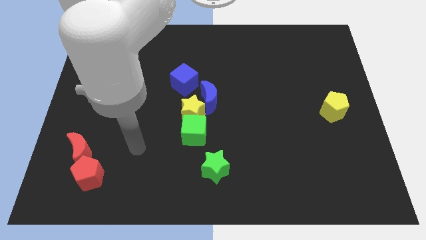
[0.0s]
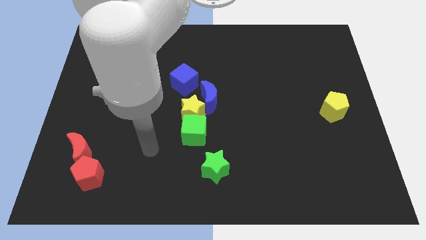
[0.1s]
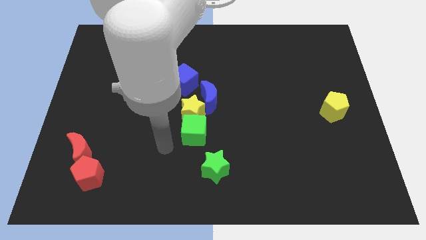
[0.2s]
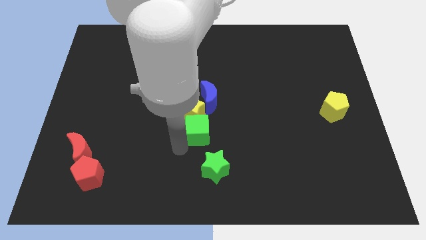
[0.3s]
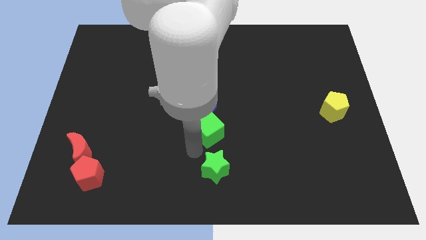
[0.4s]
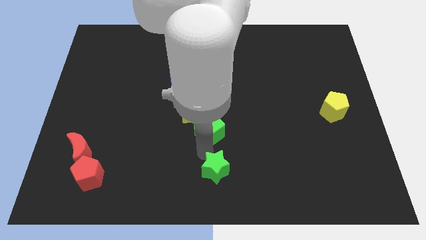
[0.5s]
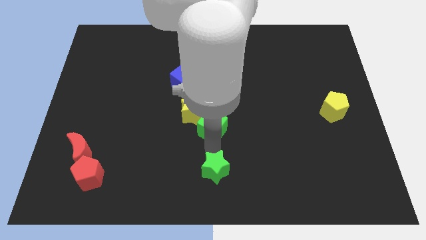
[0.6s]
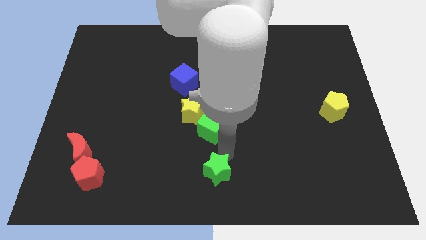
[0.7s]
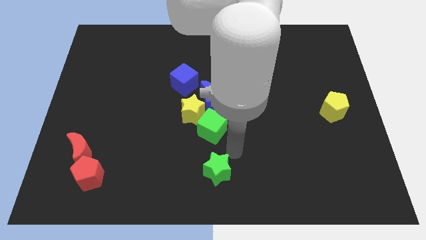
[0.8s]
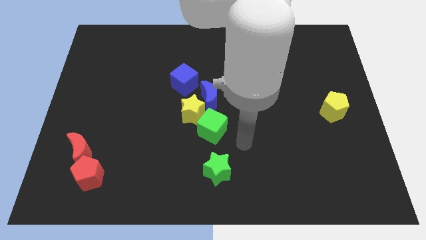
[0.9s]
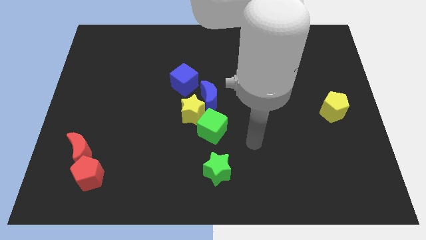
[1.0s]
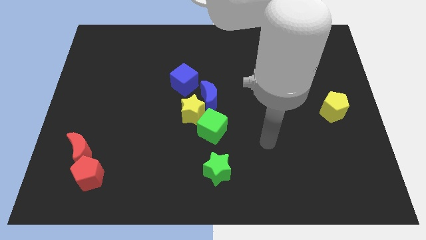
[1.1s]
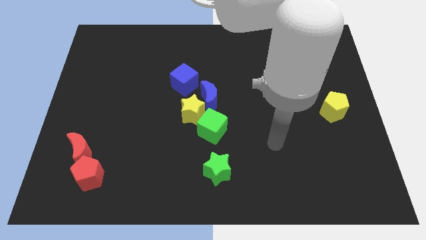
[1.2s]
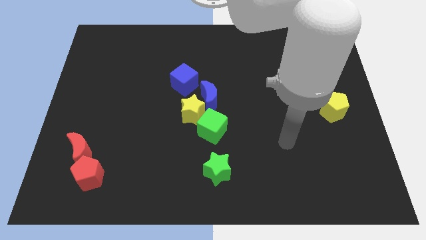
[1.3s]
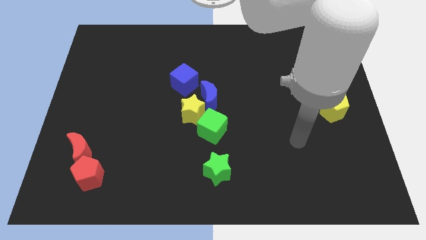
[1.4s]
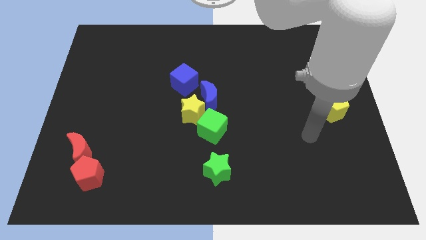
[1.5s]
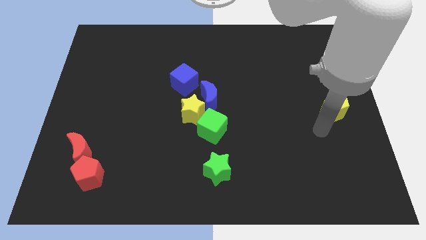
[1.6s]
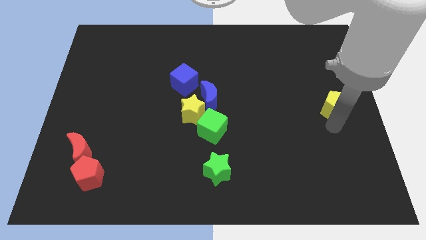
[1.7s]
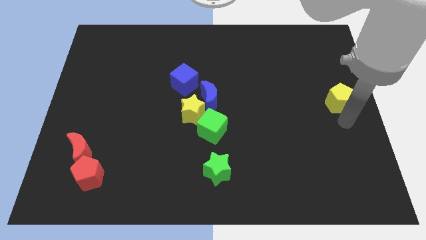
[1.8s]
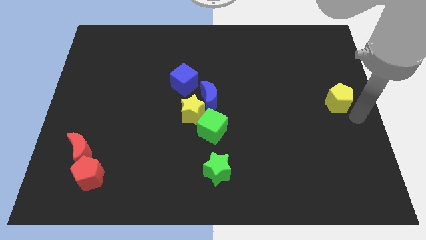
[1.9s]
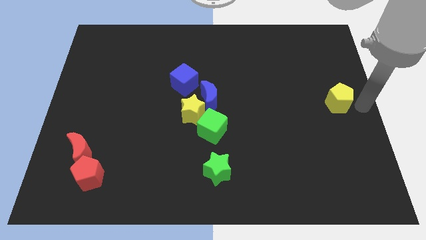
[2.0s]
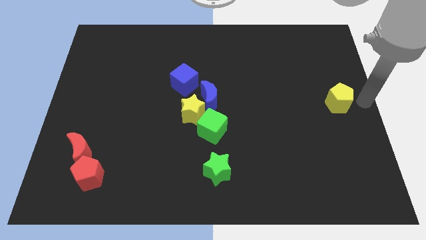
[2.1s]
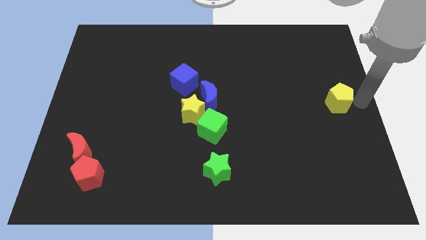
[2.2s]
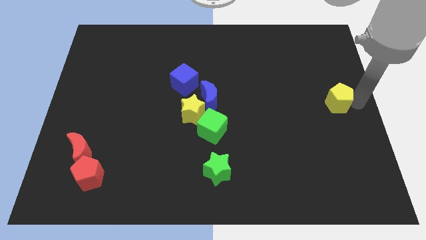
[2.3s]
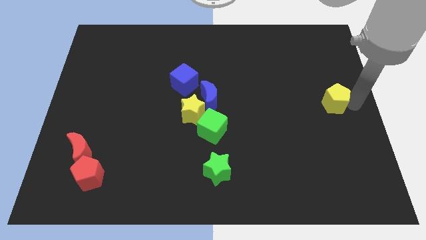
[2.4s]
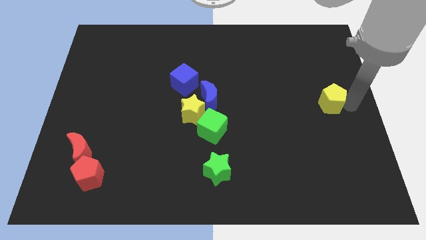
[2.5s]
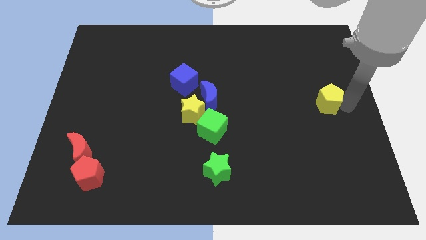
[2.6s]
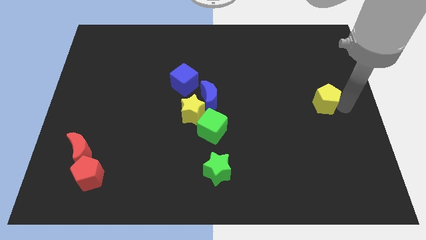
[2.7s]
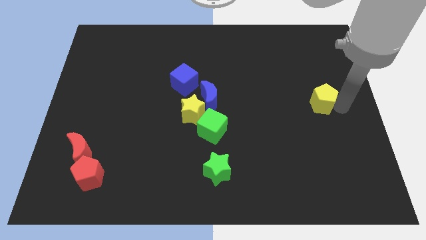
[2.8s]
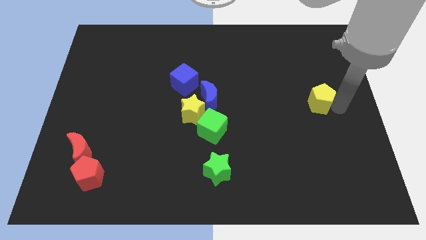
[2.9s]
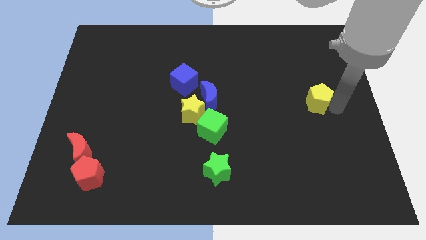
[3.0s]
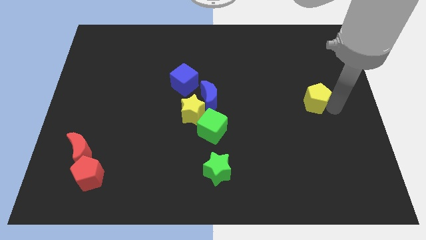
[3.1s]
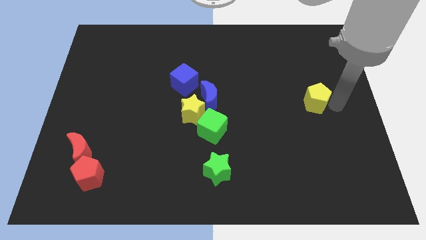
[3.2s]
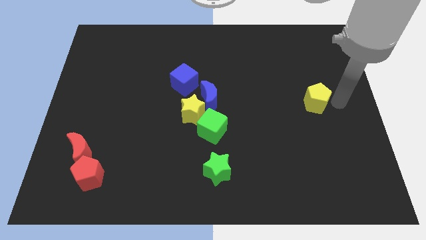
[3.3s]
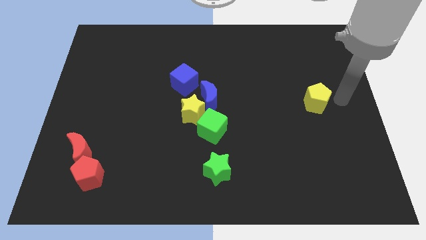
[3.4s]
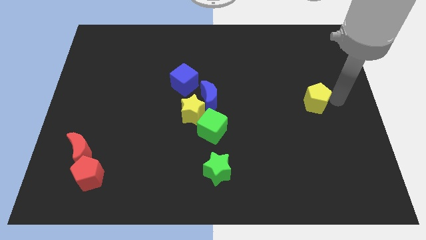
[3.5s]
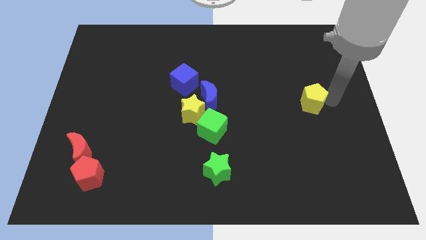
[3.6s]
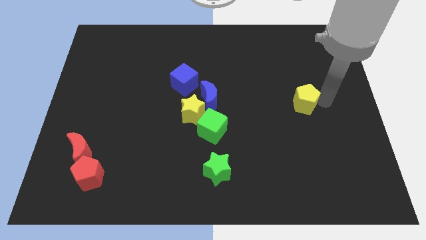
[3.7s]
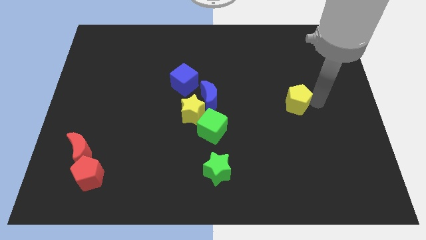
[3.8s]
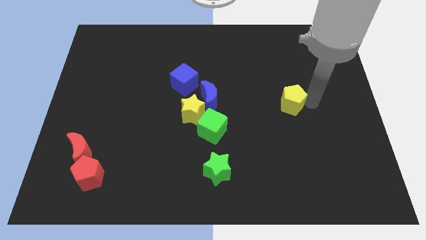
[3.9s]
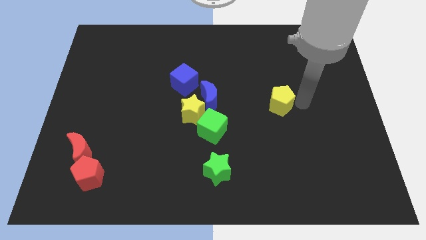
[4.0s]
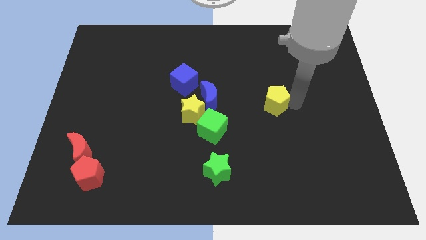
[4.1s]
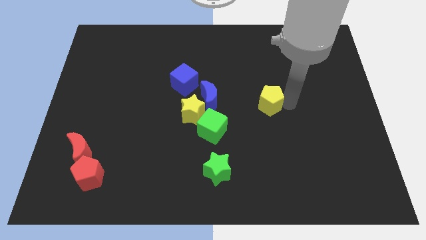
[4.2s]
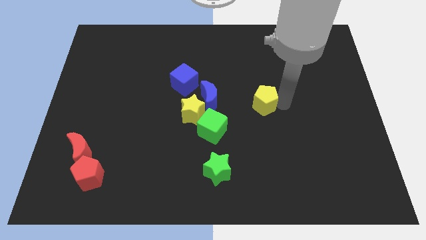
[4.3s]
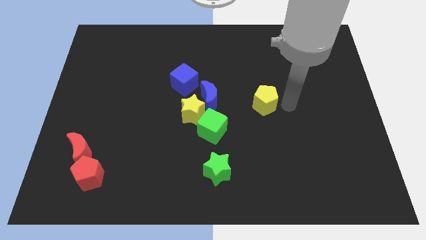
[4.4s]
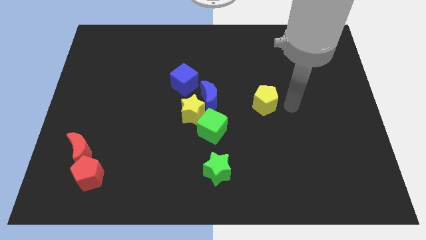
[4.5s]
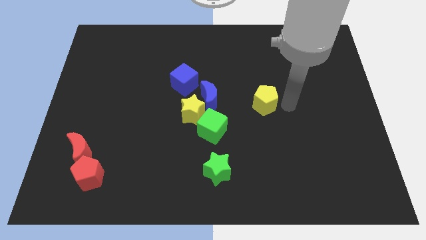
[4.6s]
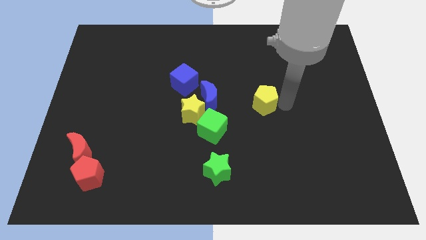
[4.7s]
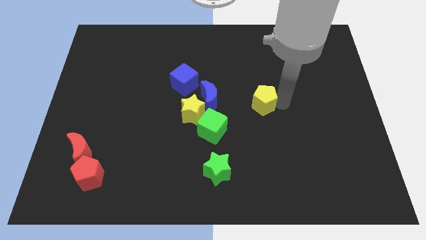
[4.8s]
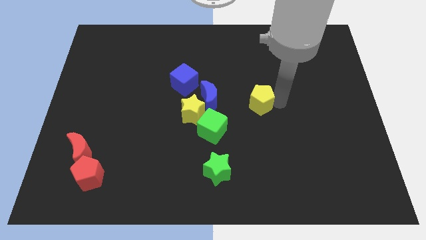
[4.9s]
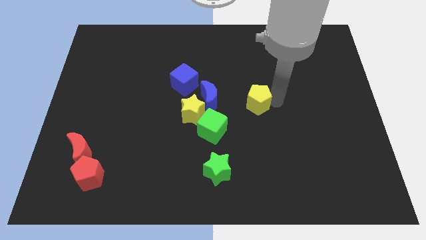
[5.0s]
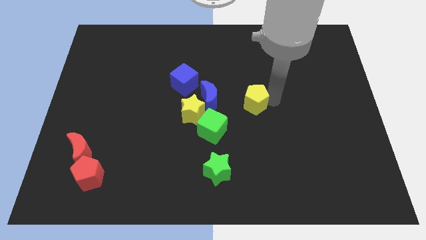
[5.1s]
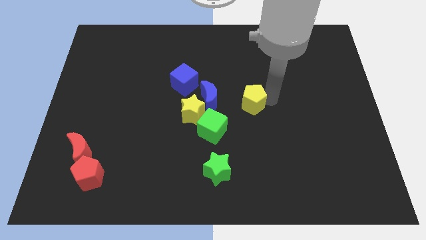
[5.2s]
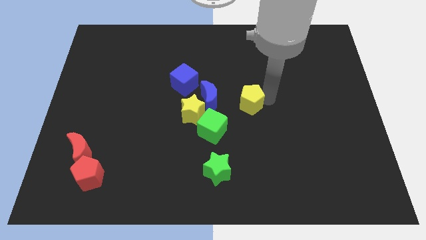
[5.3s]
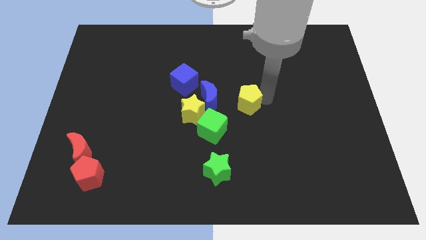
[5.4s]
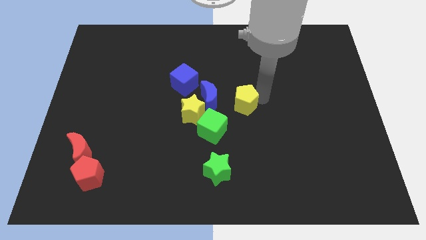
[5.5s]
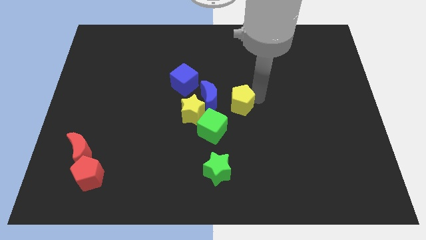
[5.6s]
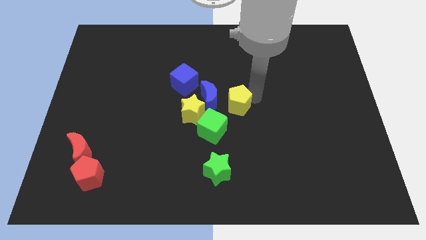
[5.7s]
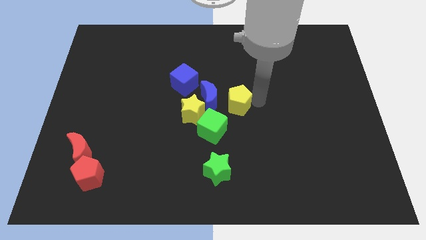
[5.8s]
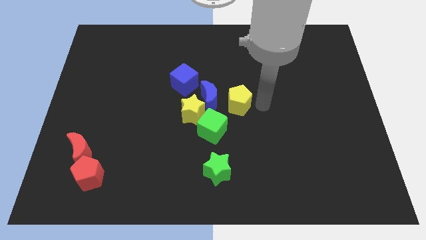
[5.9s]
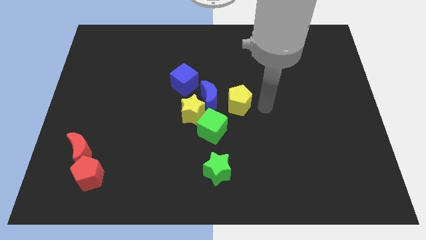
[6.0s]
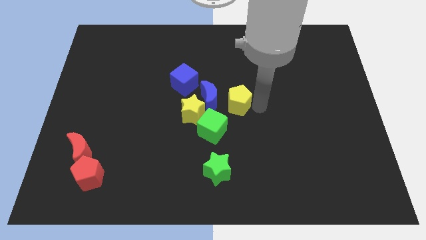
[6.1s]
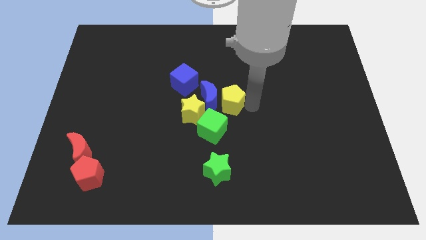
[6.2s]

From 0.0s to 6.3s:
push the yellow pentagon to the blue moon

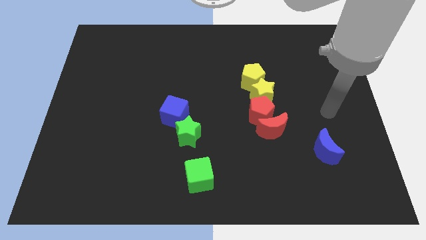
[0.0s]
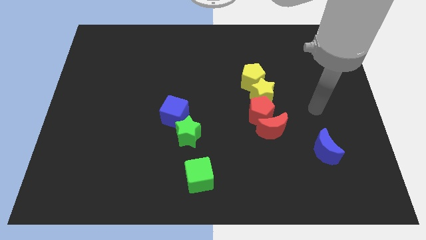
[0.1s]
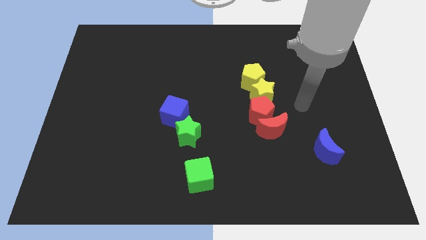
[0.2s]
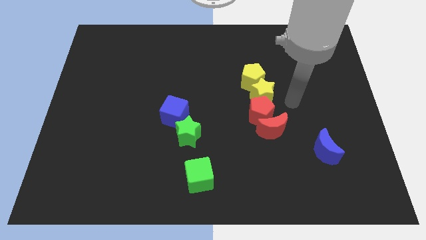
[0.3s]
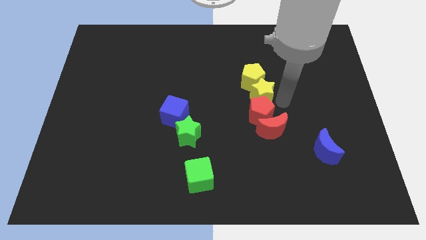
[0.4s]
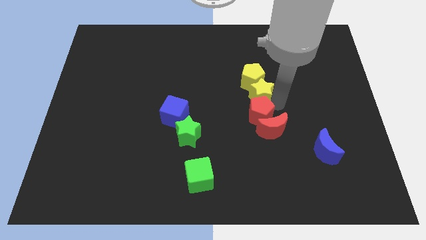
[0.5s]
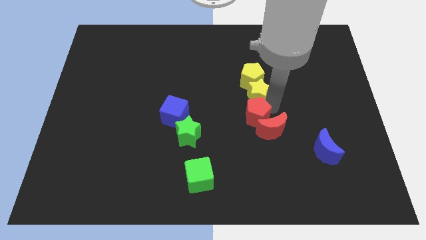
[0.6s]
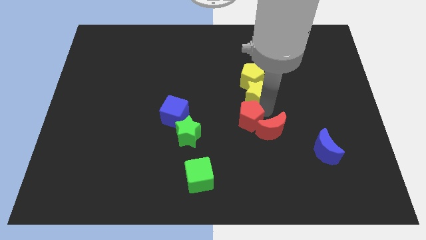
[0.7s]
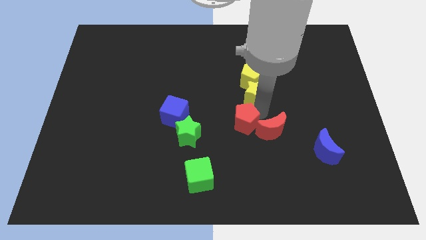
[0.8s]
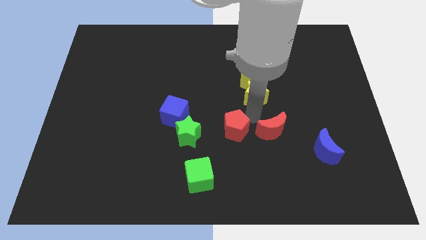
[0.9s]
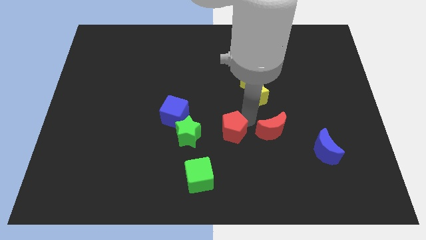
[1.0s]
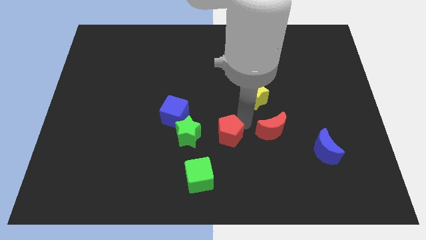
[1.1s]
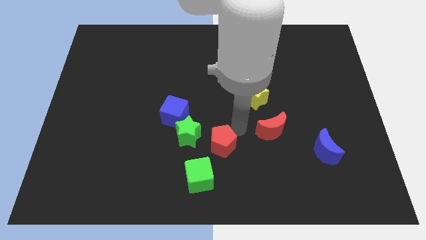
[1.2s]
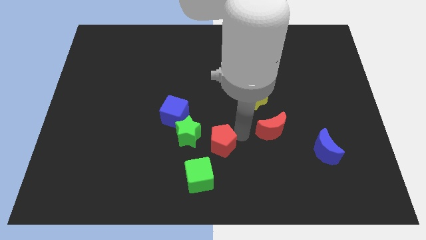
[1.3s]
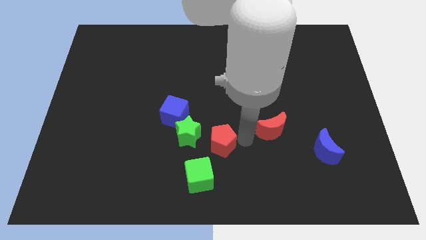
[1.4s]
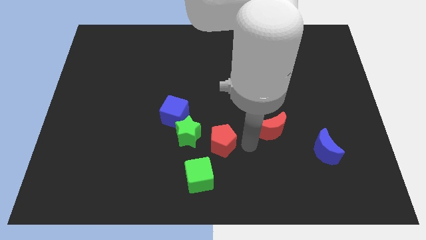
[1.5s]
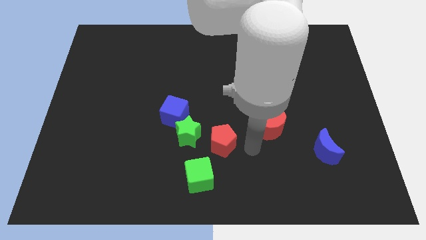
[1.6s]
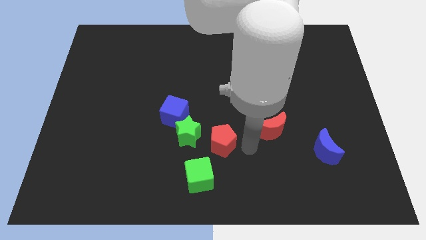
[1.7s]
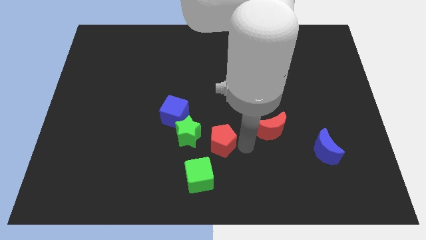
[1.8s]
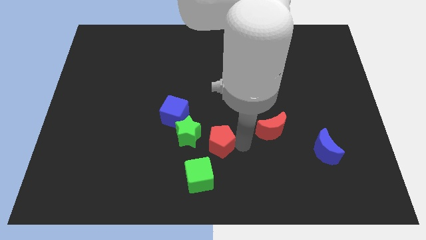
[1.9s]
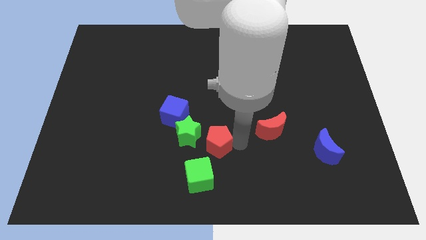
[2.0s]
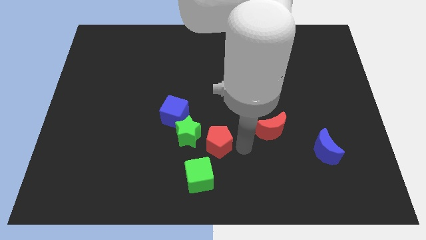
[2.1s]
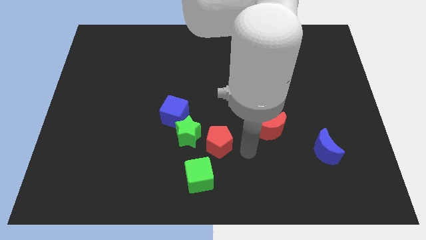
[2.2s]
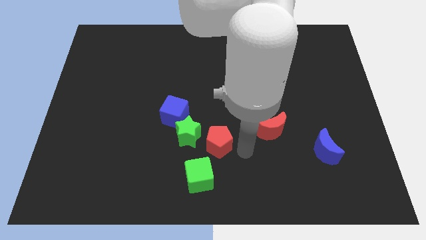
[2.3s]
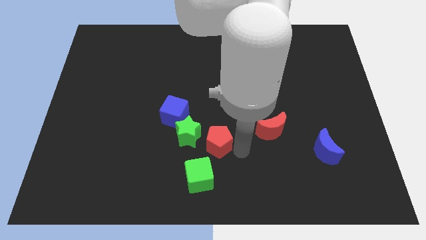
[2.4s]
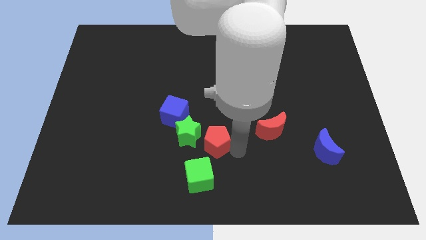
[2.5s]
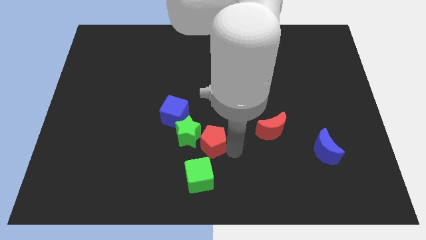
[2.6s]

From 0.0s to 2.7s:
slide the red pentagon to the green star
